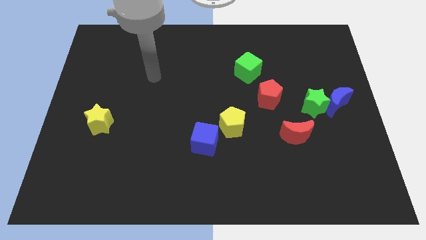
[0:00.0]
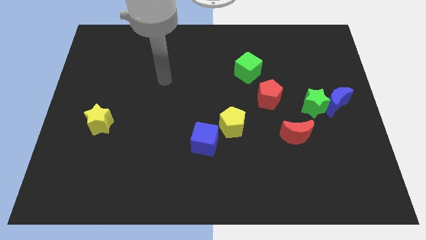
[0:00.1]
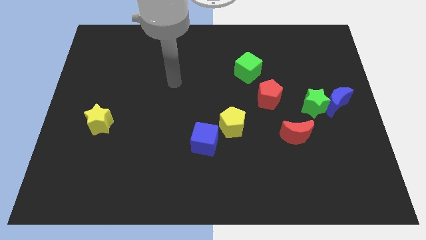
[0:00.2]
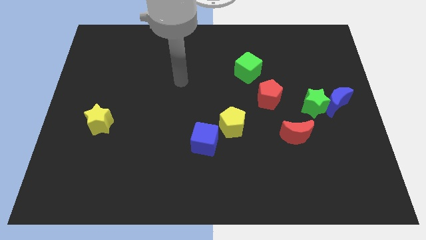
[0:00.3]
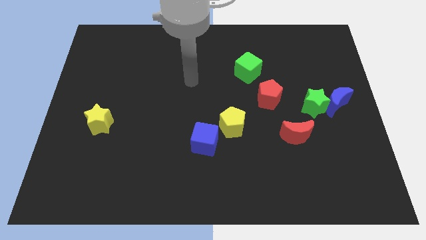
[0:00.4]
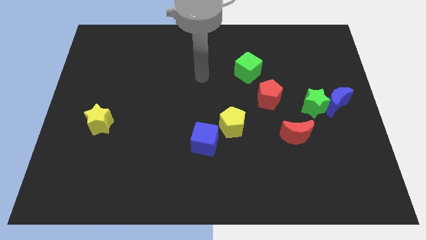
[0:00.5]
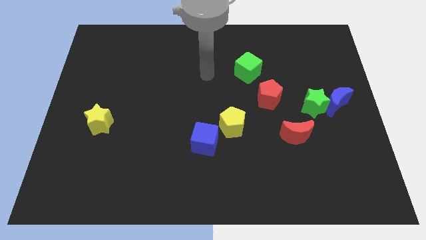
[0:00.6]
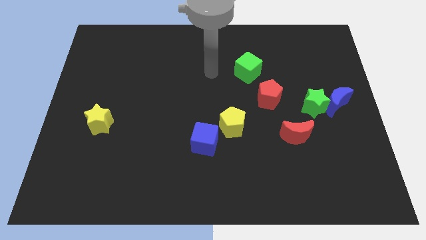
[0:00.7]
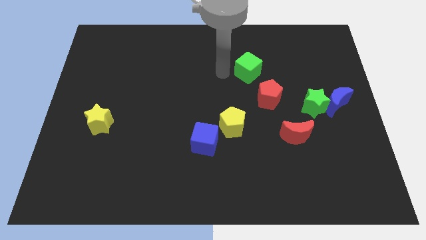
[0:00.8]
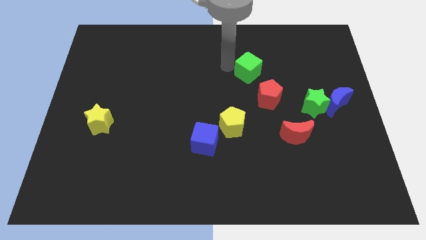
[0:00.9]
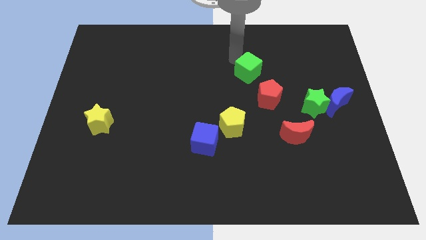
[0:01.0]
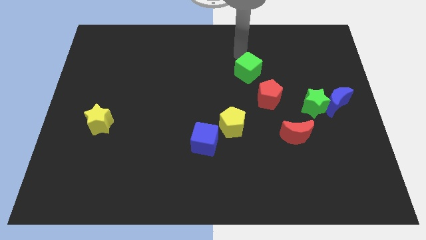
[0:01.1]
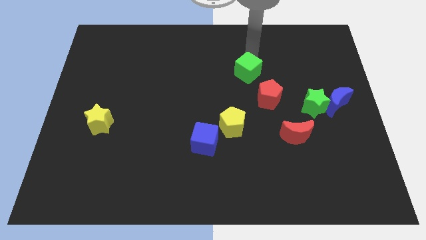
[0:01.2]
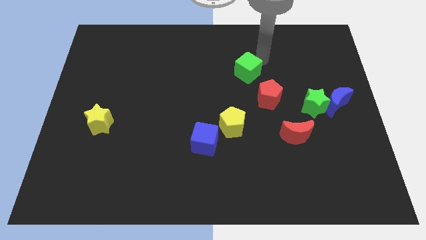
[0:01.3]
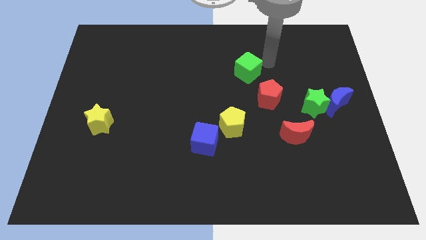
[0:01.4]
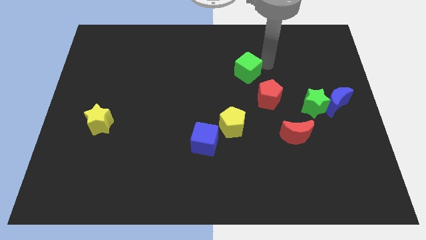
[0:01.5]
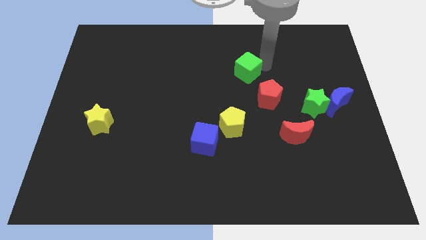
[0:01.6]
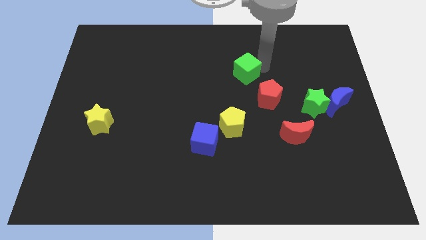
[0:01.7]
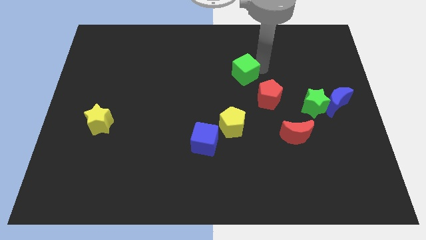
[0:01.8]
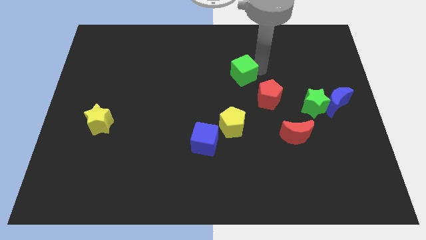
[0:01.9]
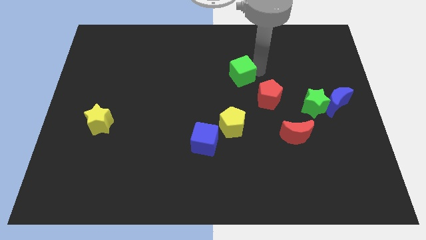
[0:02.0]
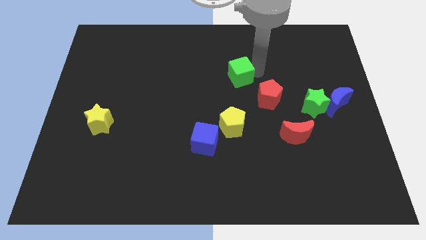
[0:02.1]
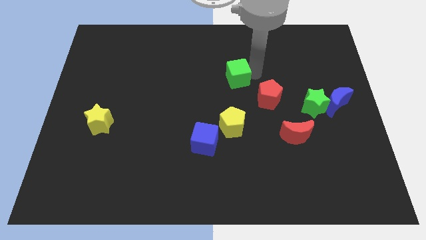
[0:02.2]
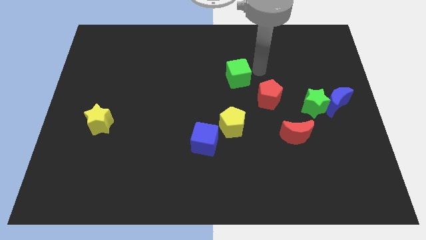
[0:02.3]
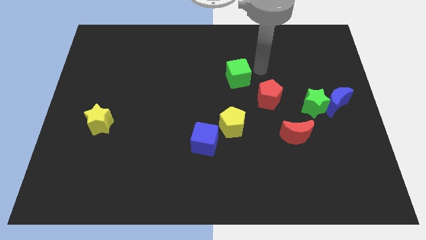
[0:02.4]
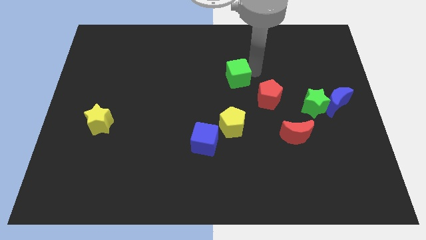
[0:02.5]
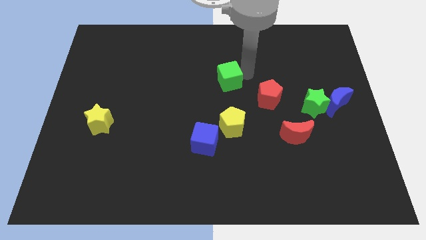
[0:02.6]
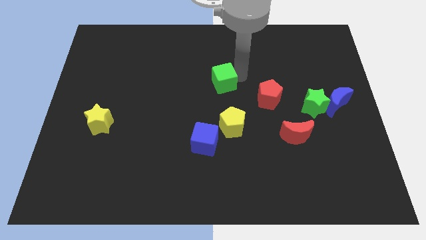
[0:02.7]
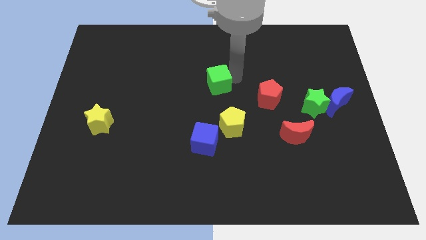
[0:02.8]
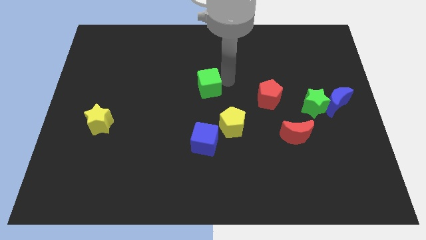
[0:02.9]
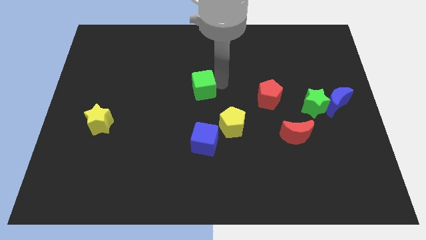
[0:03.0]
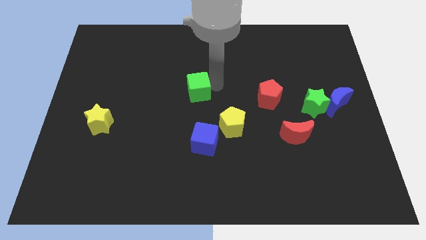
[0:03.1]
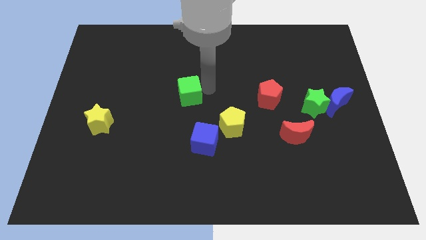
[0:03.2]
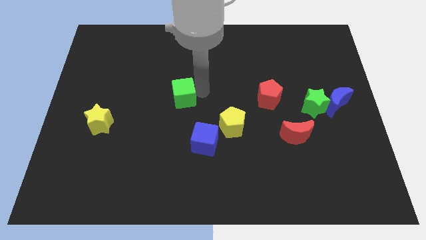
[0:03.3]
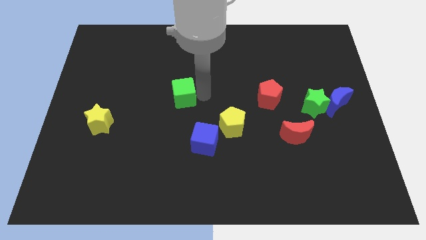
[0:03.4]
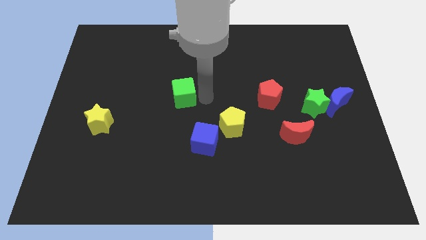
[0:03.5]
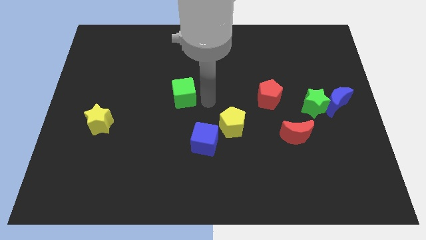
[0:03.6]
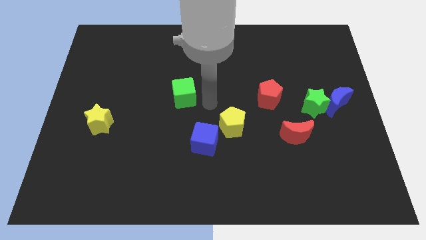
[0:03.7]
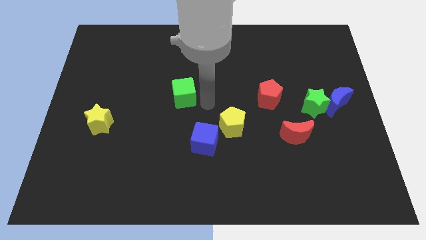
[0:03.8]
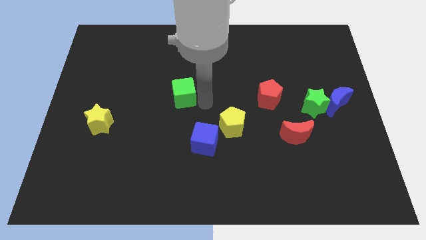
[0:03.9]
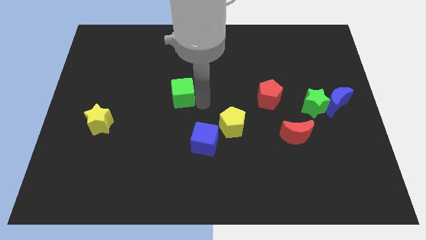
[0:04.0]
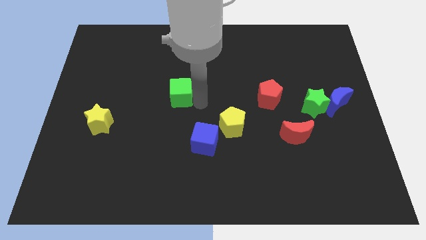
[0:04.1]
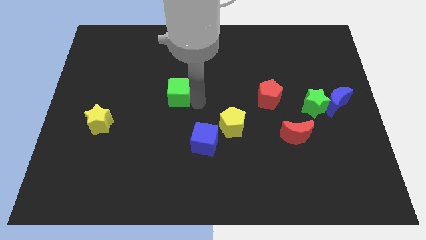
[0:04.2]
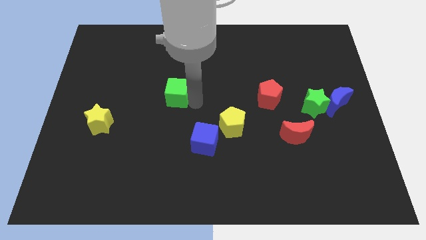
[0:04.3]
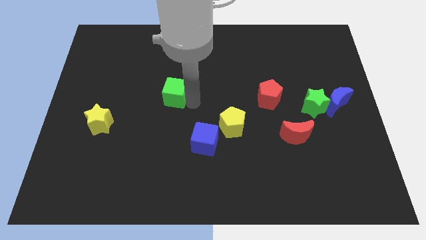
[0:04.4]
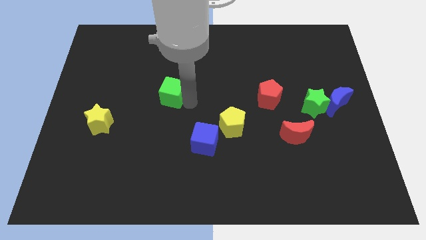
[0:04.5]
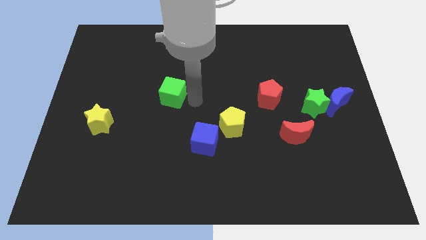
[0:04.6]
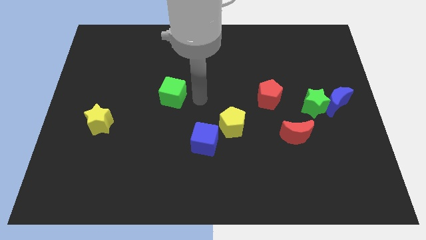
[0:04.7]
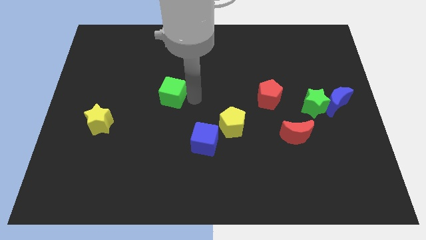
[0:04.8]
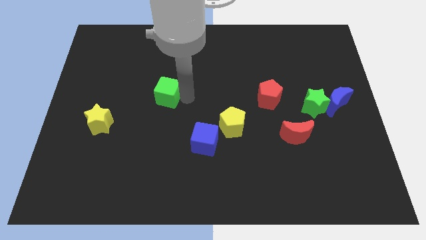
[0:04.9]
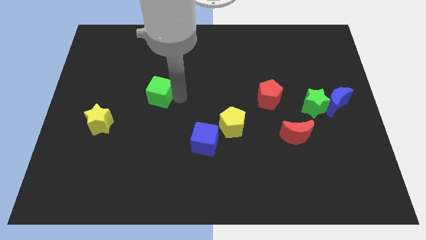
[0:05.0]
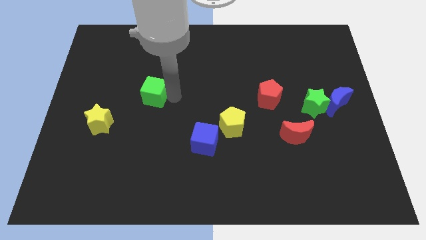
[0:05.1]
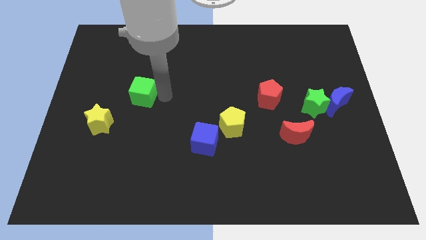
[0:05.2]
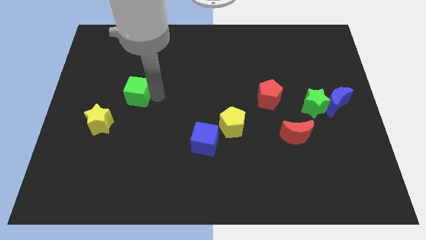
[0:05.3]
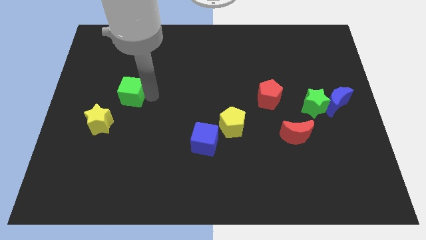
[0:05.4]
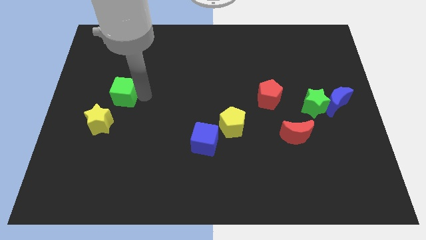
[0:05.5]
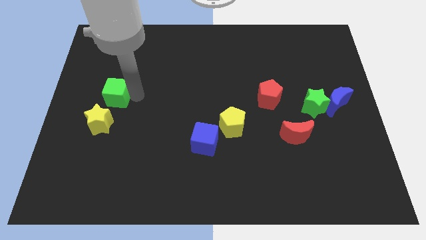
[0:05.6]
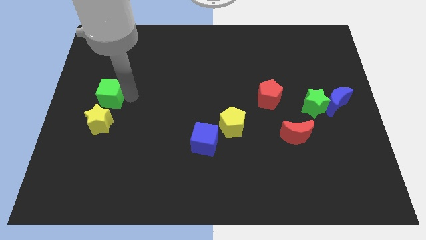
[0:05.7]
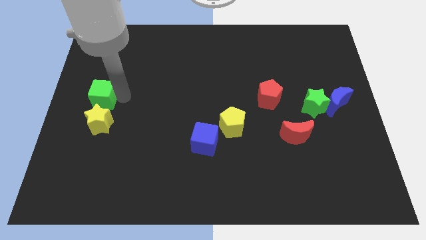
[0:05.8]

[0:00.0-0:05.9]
put the green cube to the center left

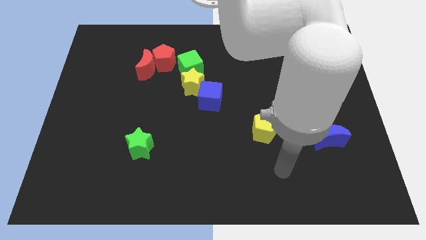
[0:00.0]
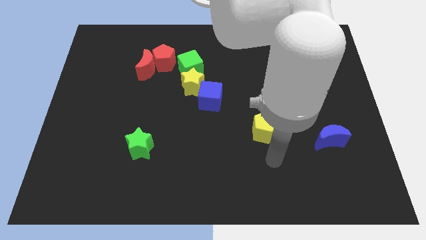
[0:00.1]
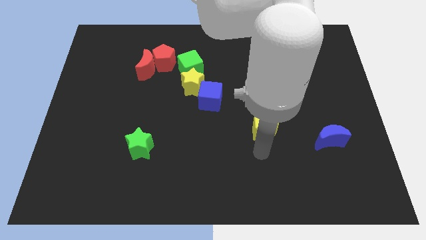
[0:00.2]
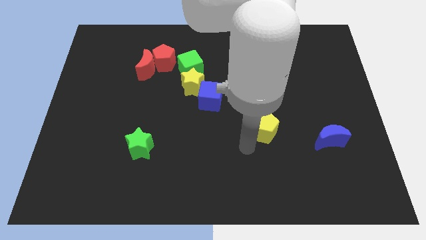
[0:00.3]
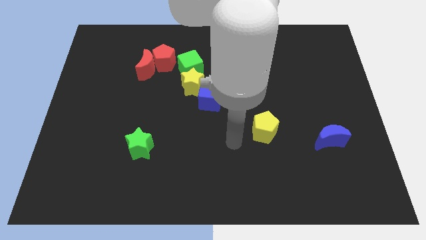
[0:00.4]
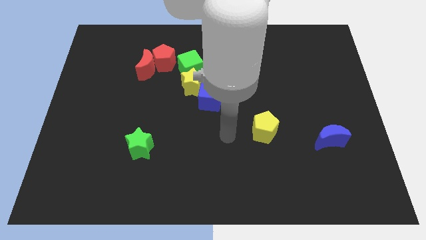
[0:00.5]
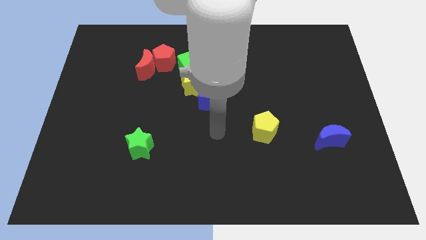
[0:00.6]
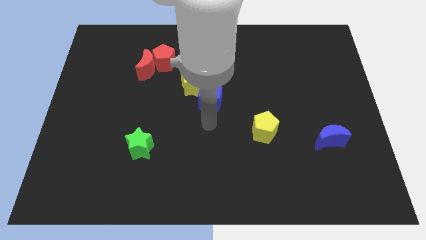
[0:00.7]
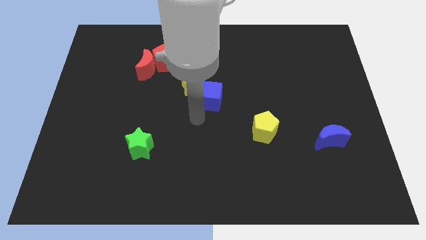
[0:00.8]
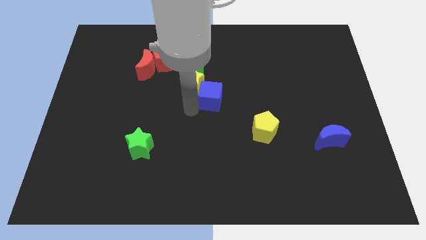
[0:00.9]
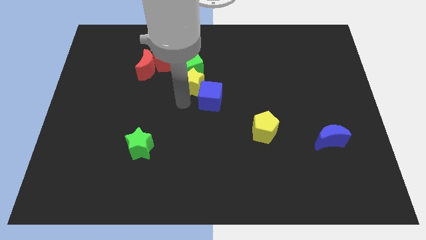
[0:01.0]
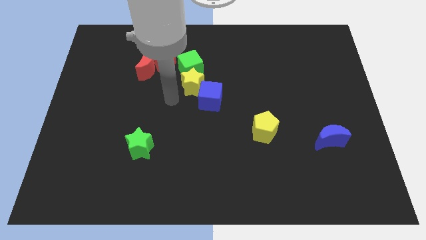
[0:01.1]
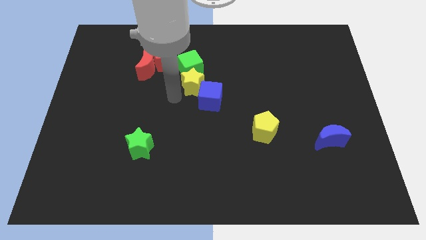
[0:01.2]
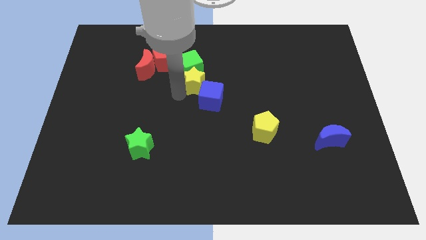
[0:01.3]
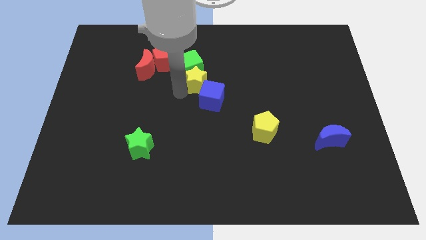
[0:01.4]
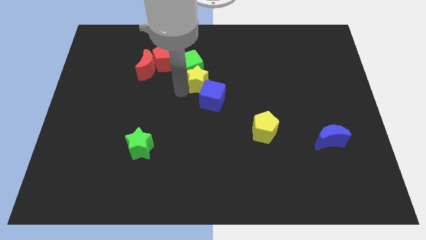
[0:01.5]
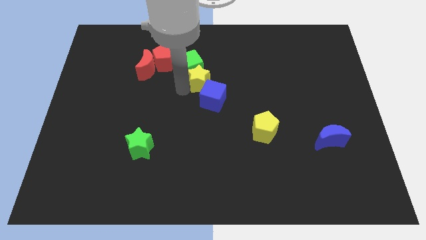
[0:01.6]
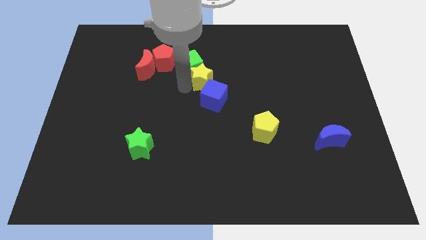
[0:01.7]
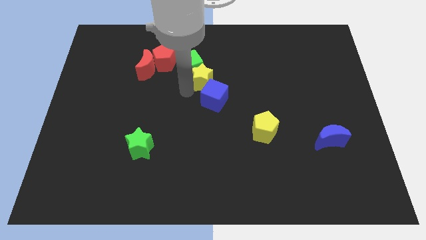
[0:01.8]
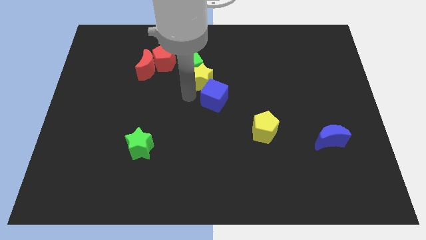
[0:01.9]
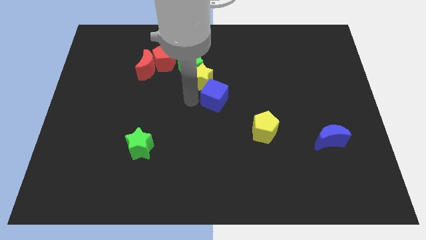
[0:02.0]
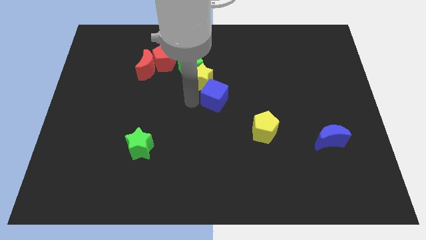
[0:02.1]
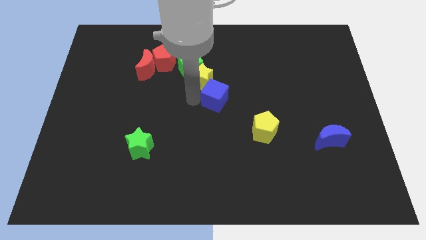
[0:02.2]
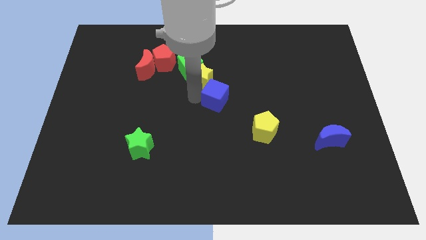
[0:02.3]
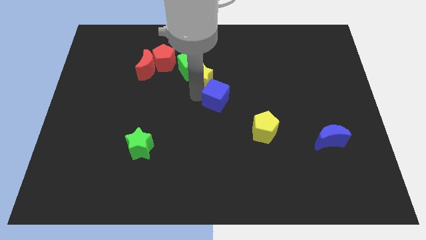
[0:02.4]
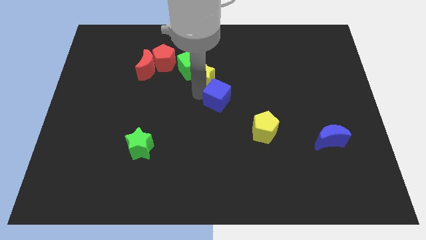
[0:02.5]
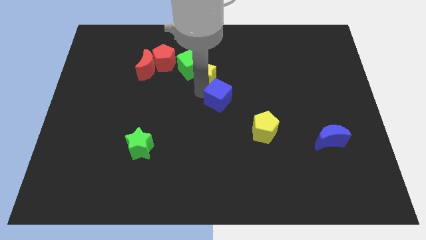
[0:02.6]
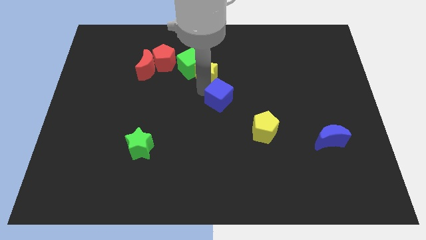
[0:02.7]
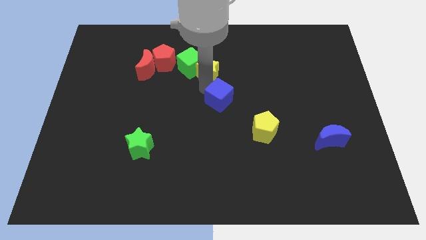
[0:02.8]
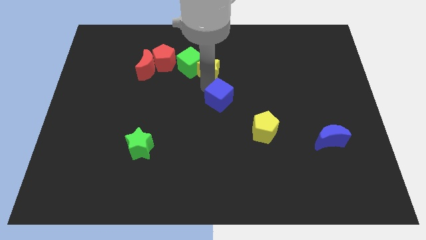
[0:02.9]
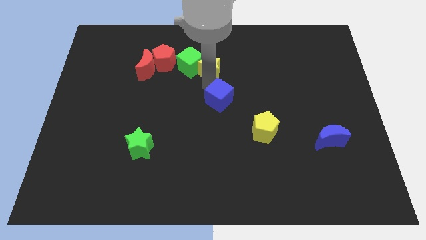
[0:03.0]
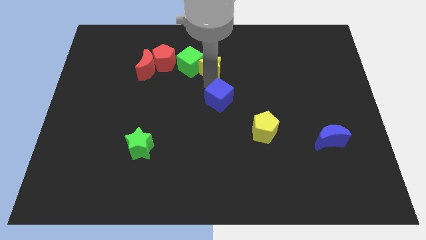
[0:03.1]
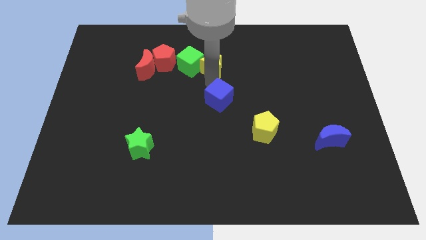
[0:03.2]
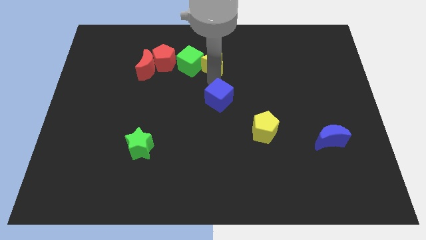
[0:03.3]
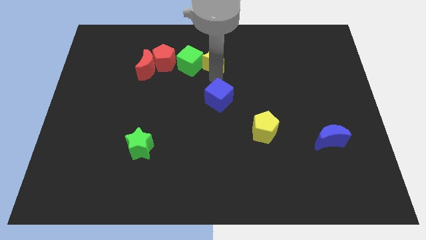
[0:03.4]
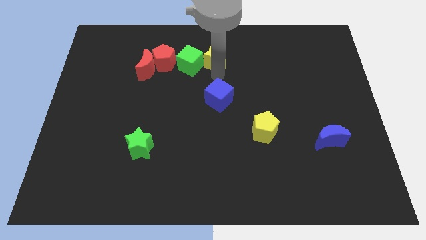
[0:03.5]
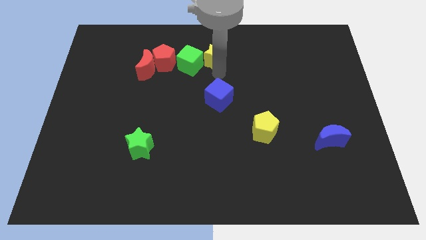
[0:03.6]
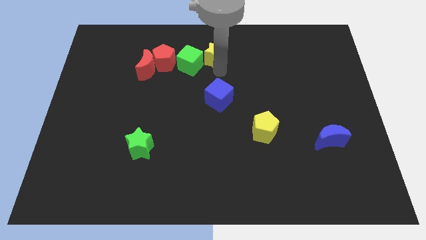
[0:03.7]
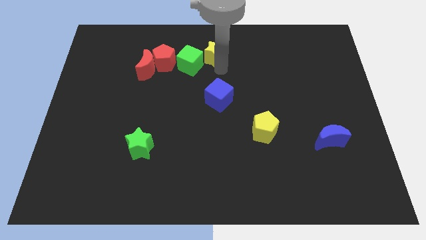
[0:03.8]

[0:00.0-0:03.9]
push the yellow star to the top side
